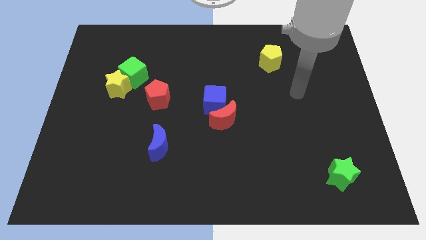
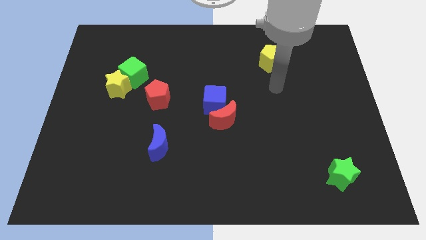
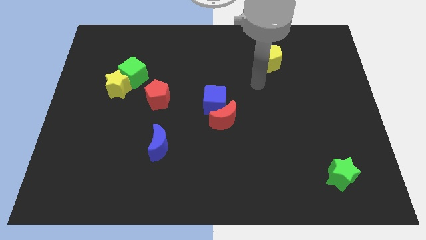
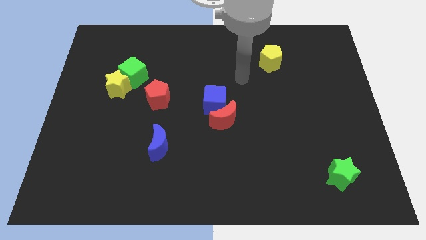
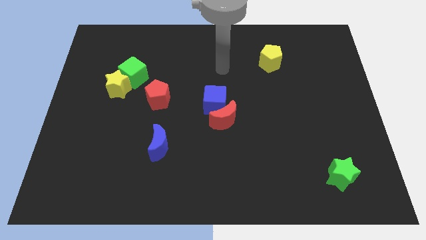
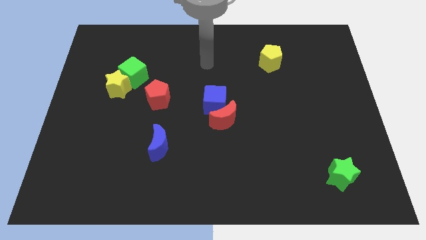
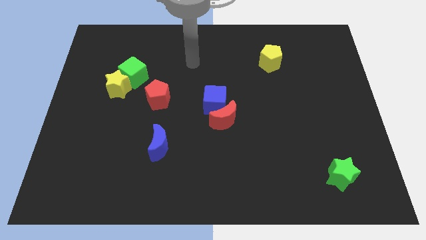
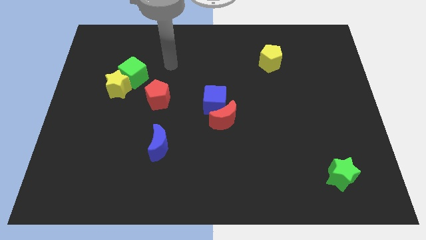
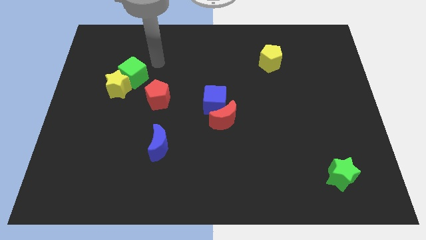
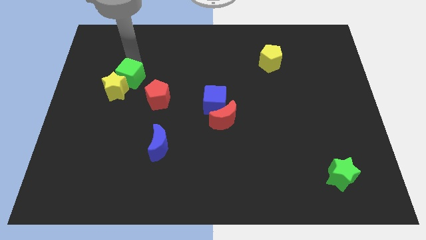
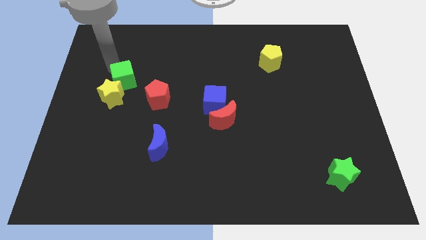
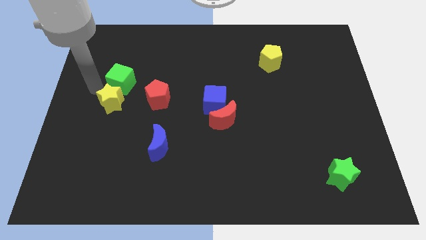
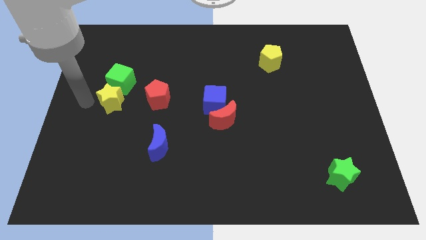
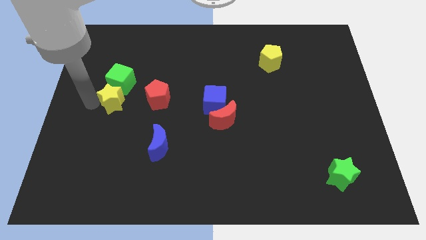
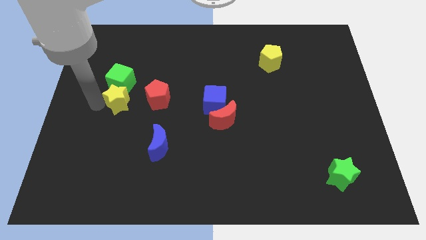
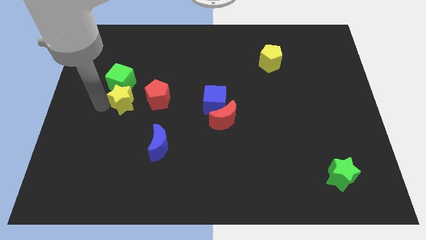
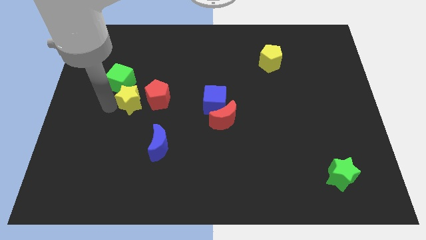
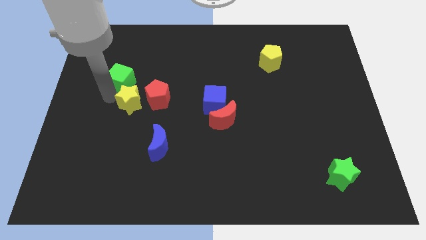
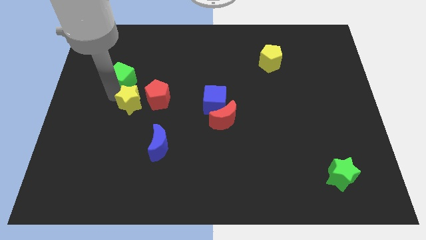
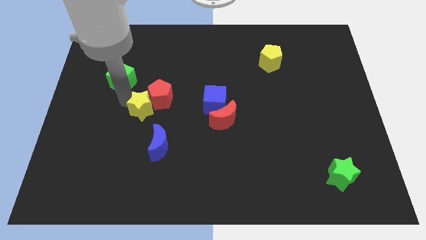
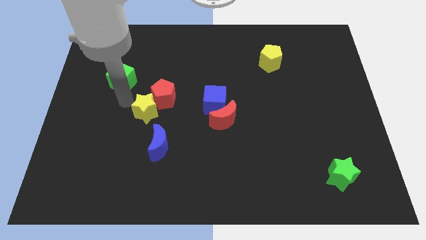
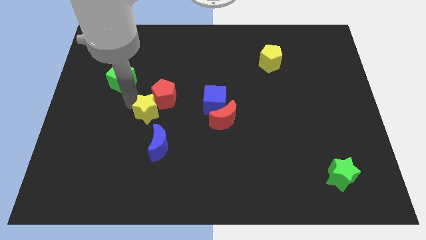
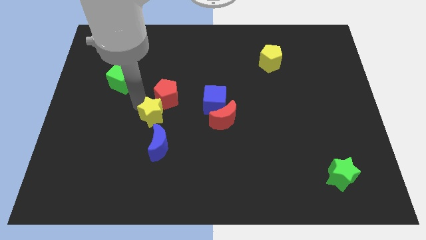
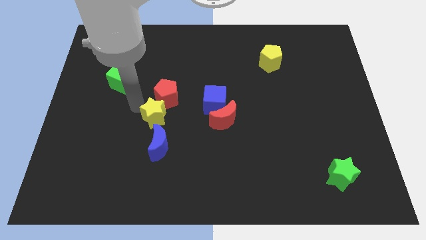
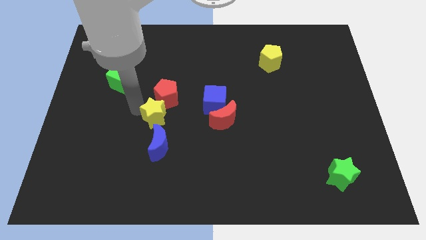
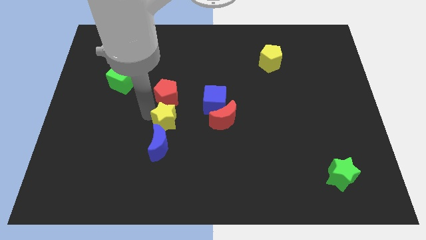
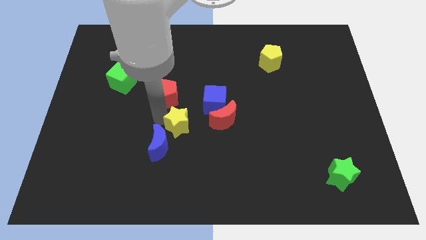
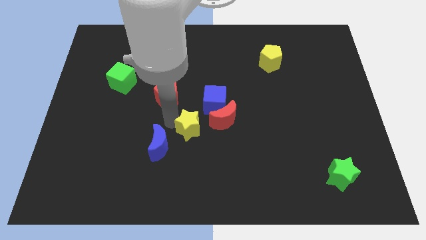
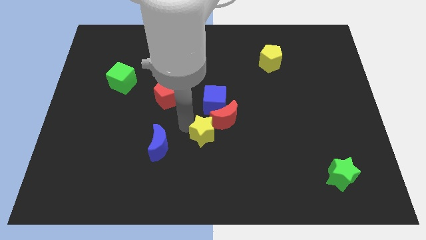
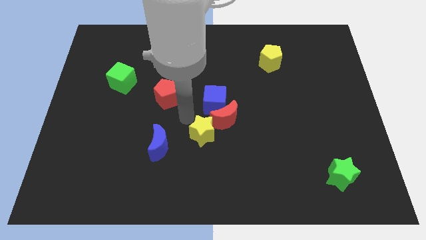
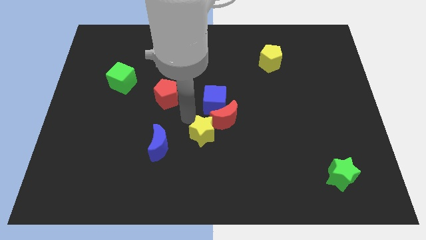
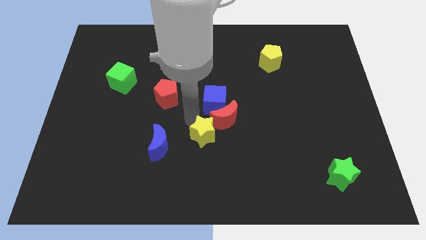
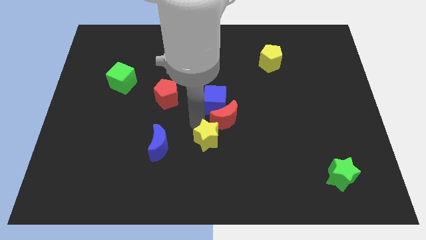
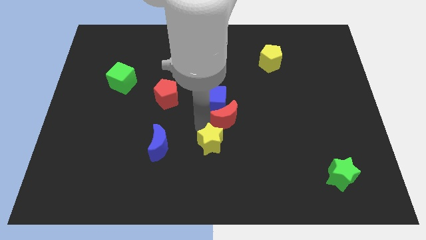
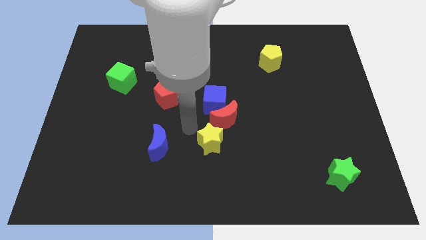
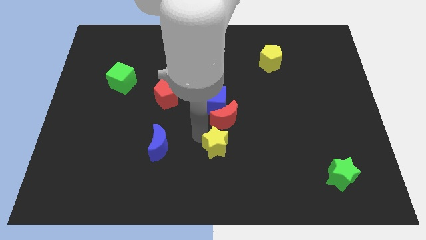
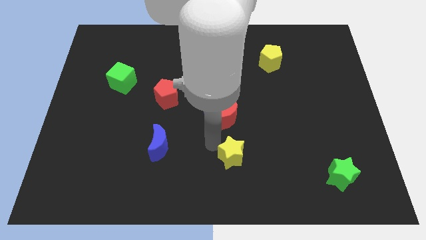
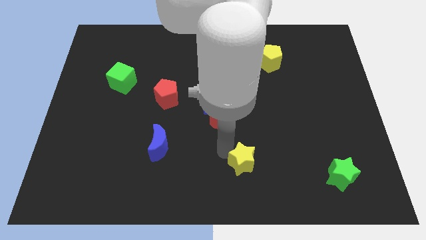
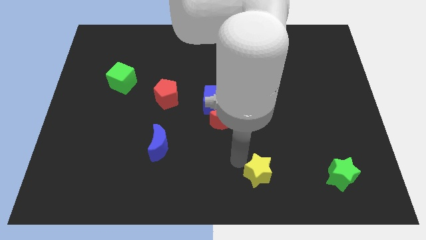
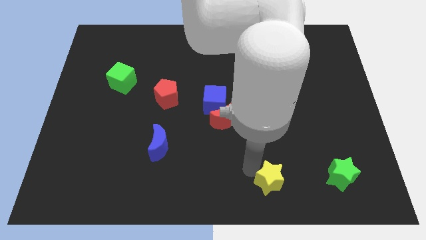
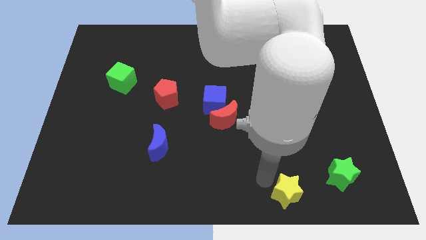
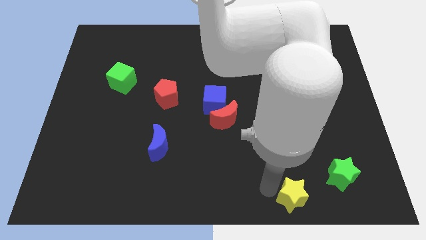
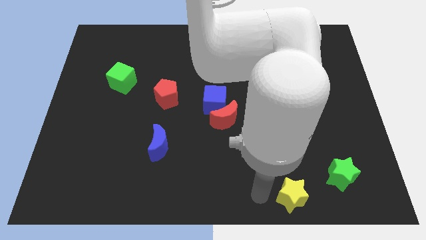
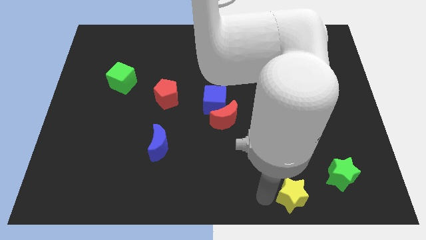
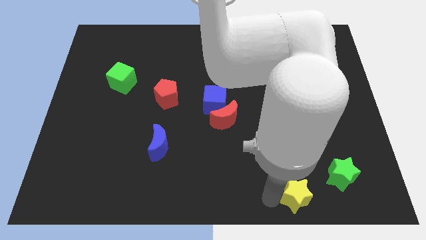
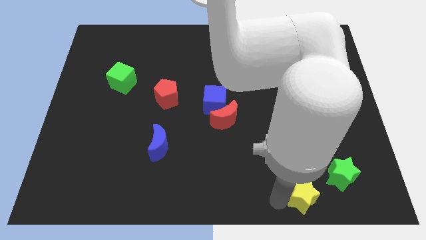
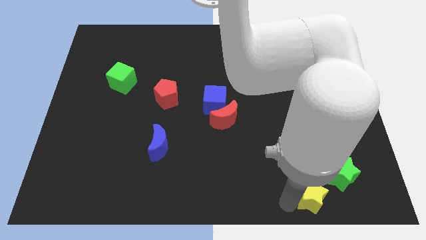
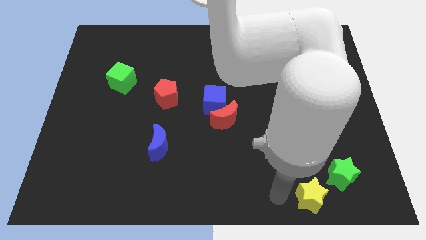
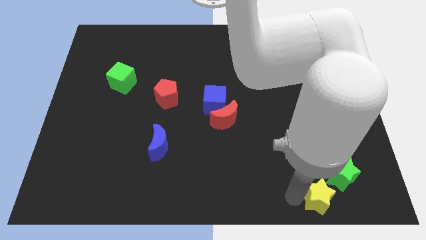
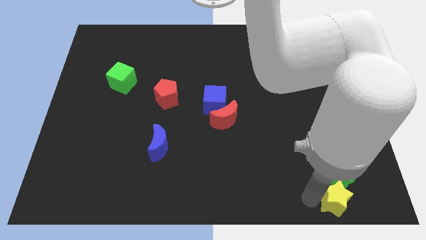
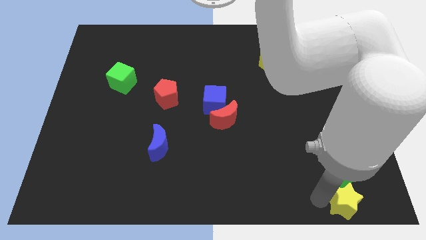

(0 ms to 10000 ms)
move the yellow star to the bottom right of the board
